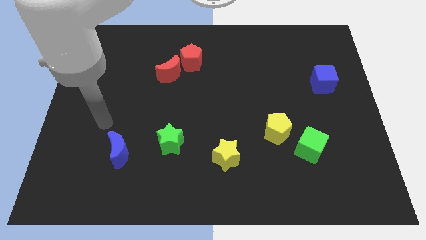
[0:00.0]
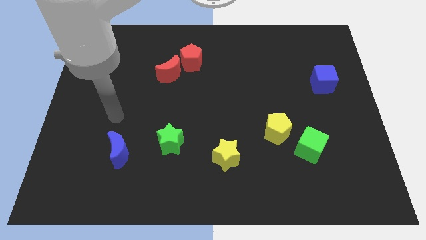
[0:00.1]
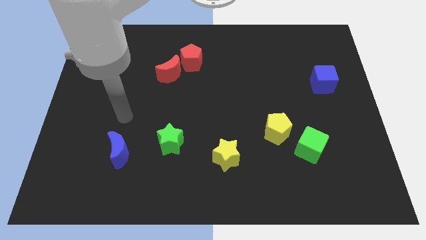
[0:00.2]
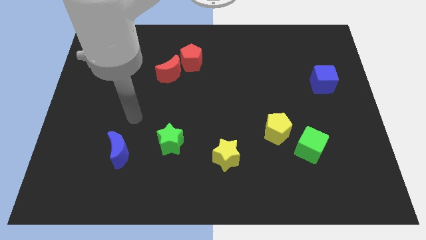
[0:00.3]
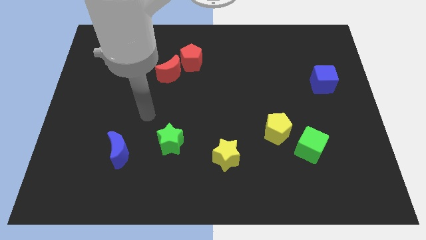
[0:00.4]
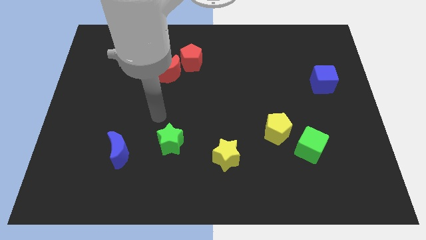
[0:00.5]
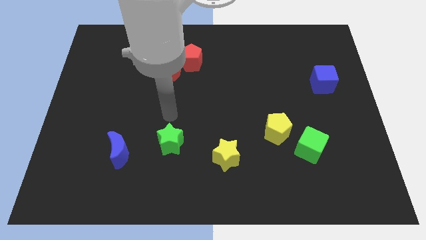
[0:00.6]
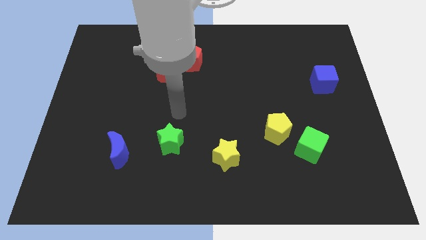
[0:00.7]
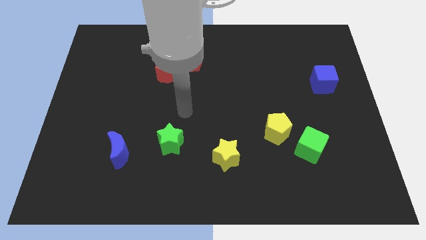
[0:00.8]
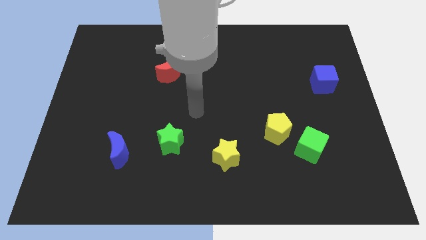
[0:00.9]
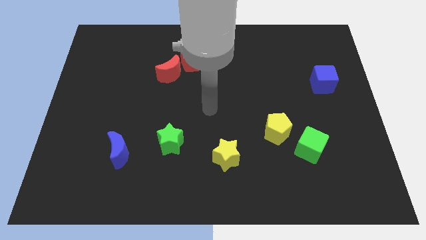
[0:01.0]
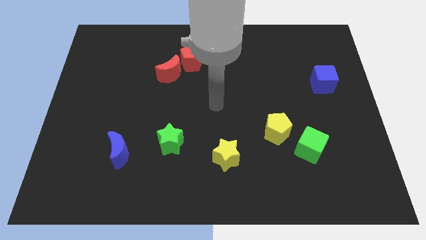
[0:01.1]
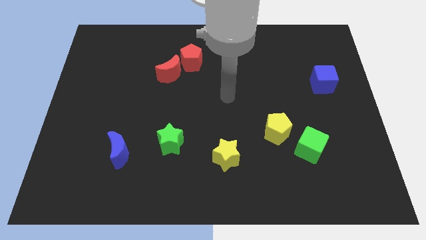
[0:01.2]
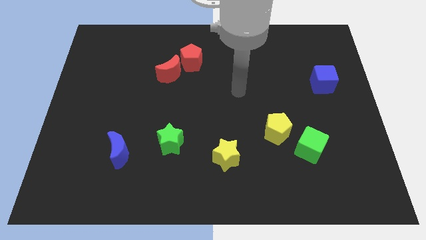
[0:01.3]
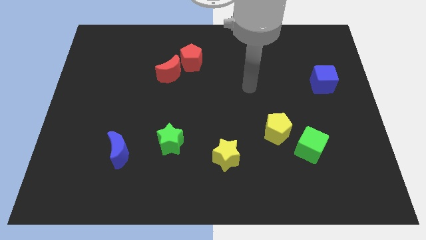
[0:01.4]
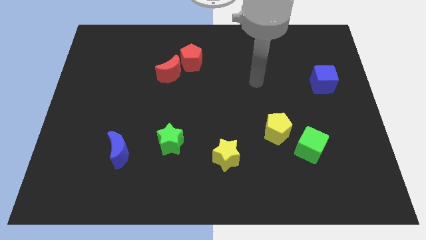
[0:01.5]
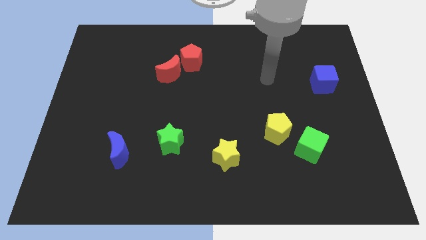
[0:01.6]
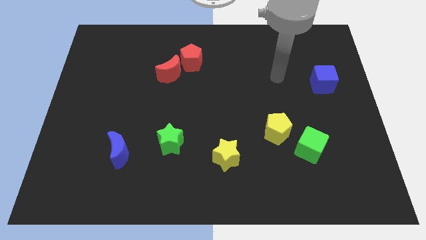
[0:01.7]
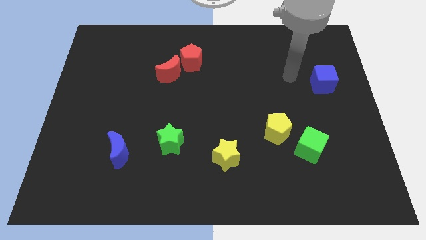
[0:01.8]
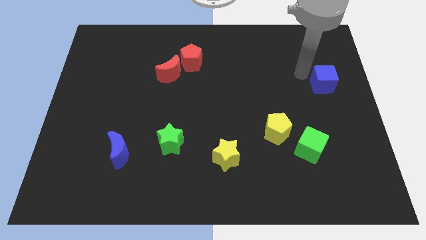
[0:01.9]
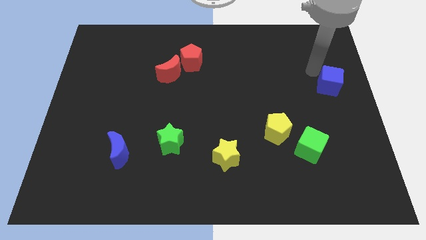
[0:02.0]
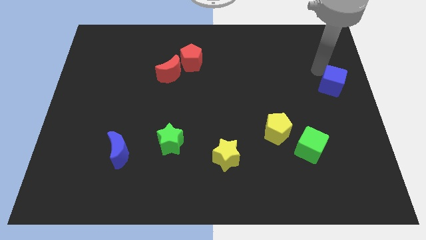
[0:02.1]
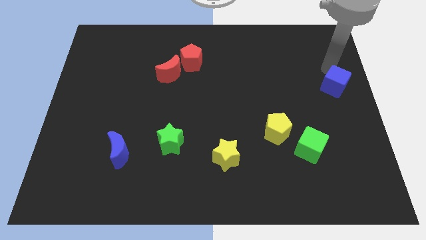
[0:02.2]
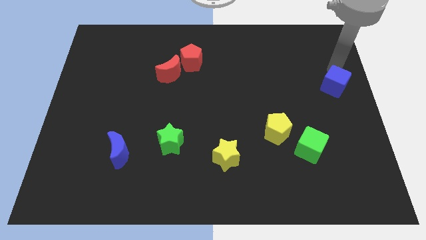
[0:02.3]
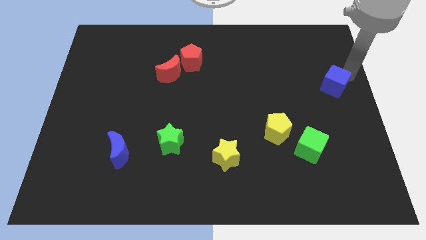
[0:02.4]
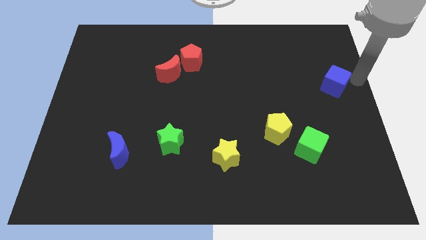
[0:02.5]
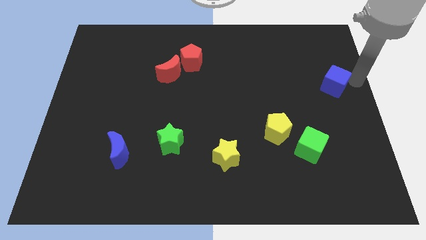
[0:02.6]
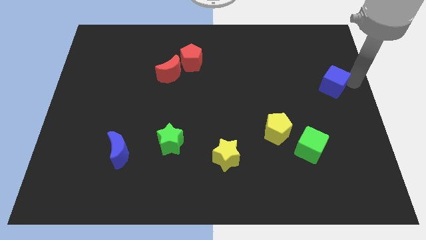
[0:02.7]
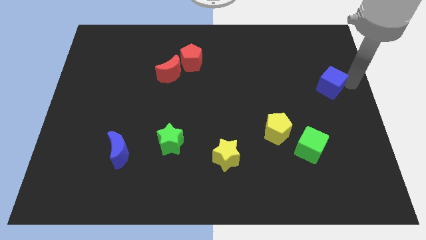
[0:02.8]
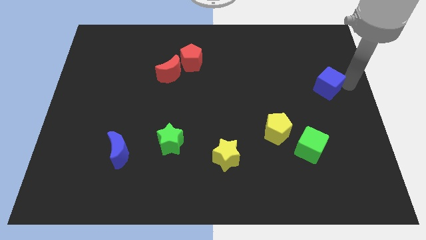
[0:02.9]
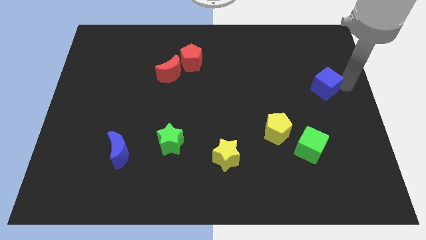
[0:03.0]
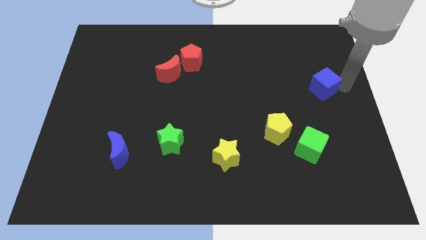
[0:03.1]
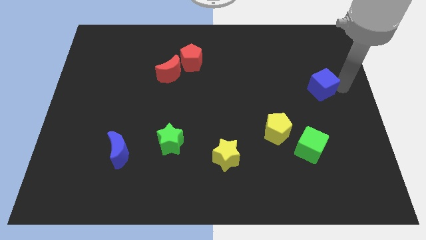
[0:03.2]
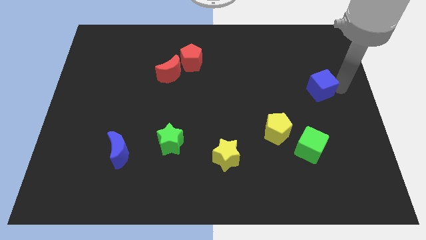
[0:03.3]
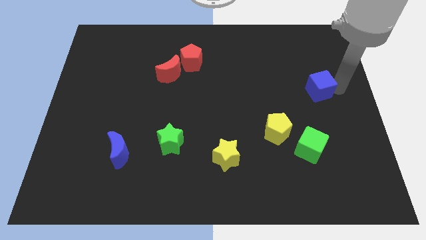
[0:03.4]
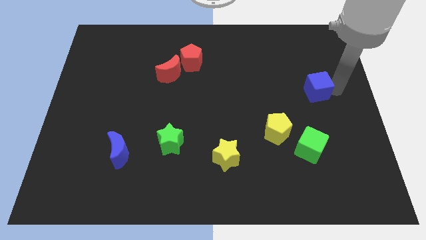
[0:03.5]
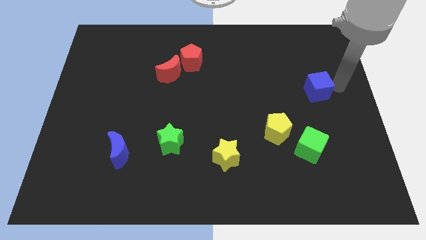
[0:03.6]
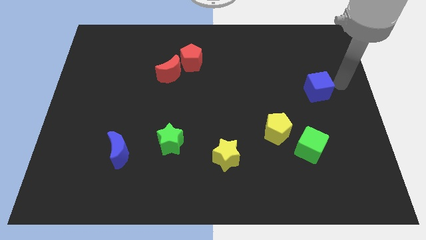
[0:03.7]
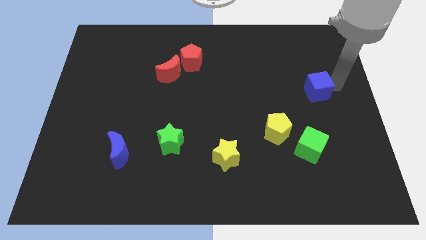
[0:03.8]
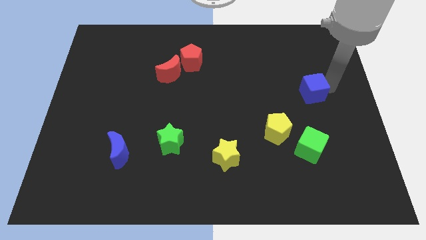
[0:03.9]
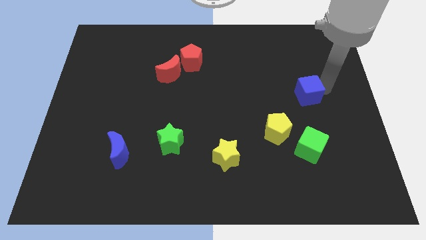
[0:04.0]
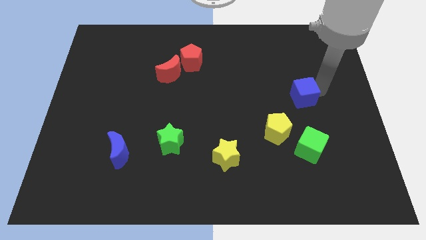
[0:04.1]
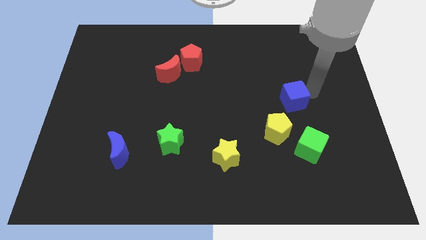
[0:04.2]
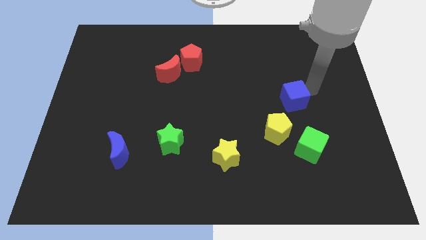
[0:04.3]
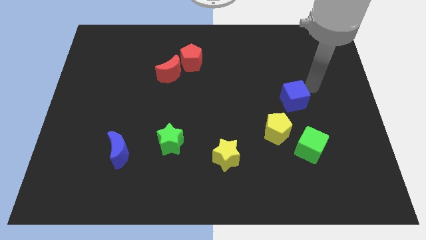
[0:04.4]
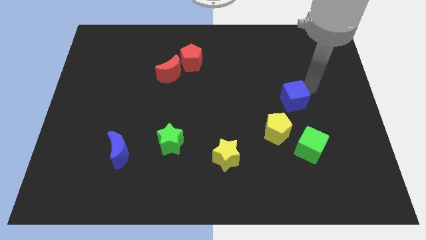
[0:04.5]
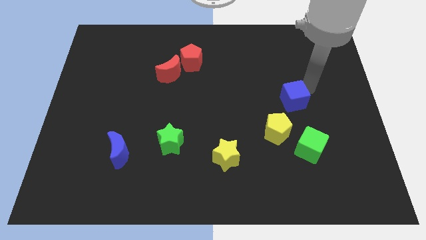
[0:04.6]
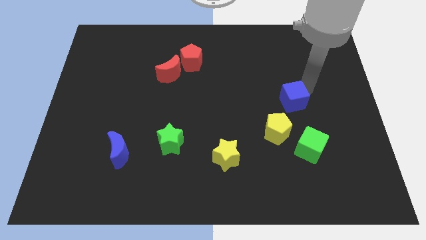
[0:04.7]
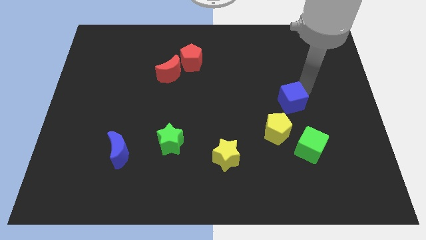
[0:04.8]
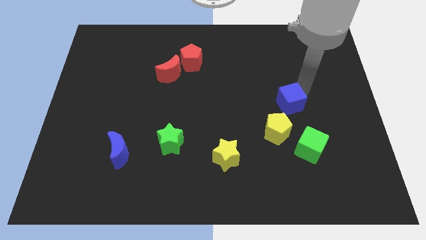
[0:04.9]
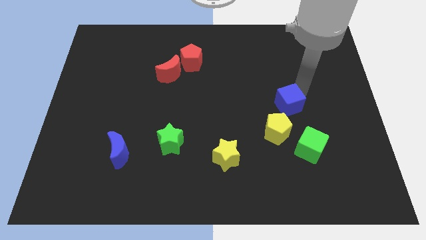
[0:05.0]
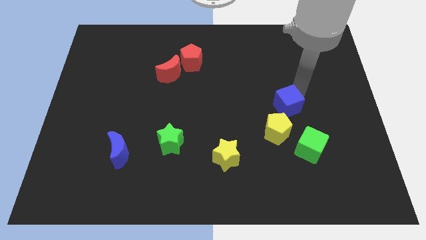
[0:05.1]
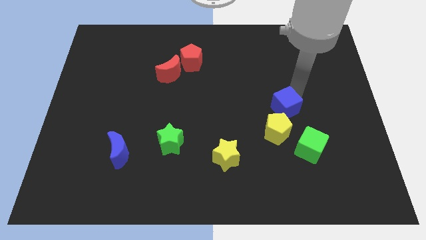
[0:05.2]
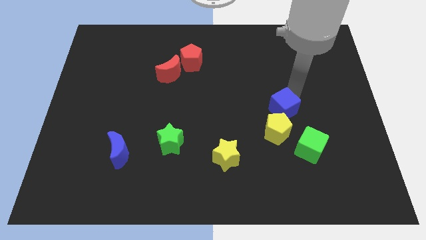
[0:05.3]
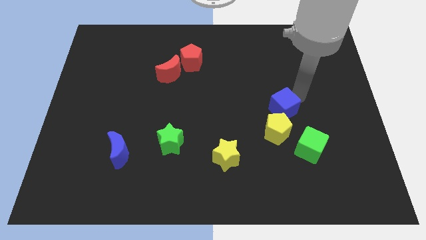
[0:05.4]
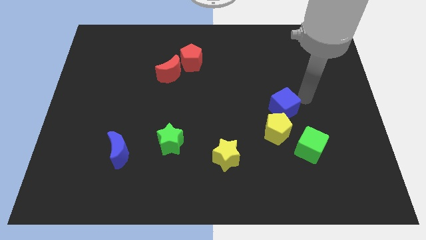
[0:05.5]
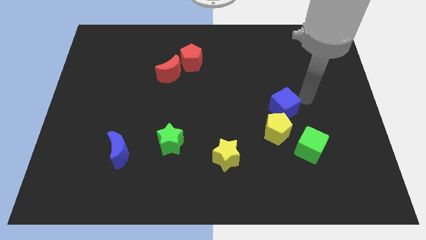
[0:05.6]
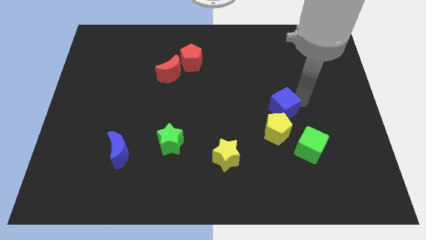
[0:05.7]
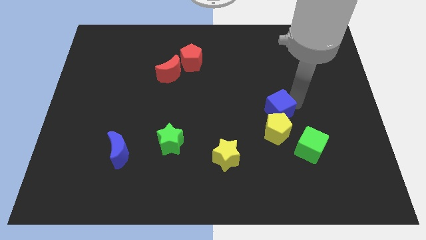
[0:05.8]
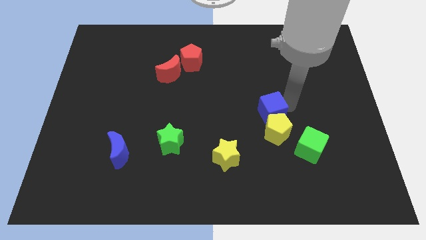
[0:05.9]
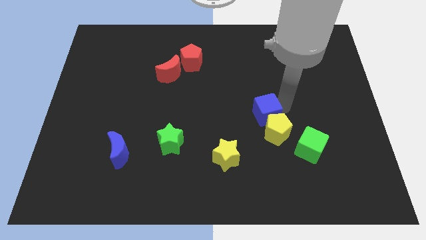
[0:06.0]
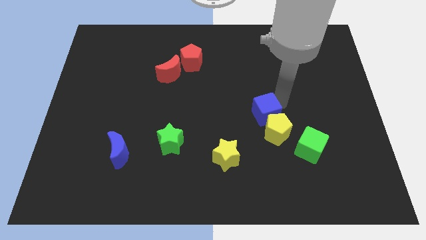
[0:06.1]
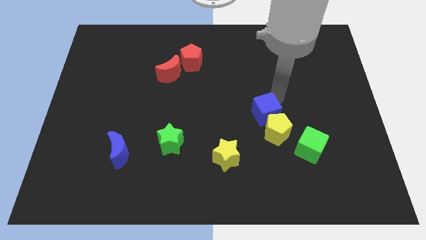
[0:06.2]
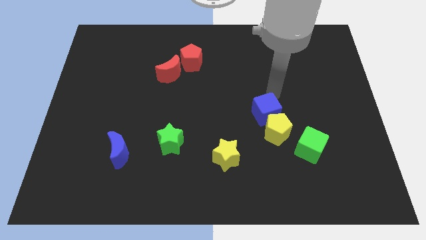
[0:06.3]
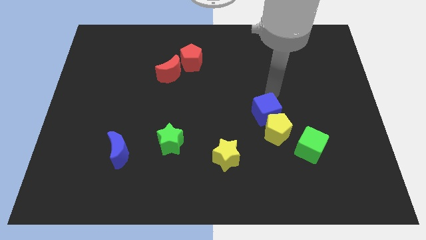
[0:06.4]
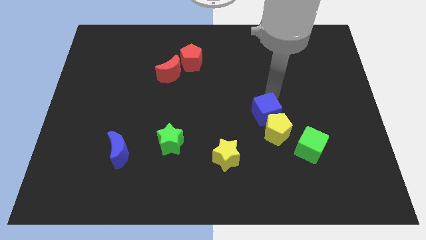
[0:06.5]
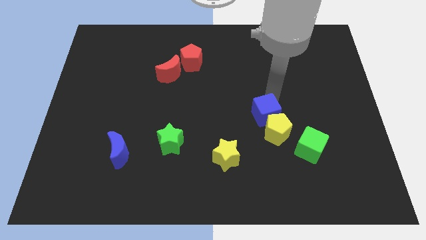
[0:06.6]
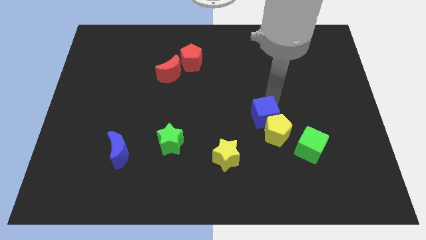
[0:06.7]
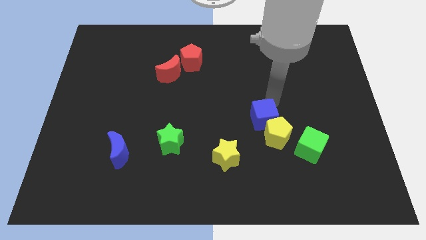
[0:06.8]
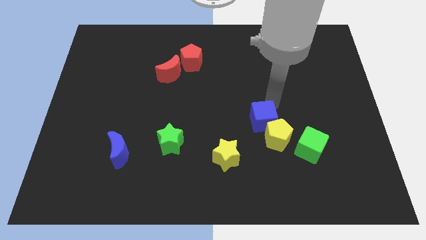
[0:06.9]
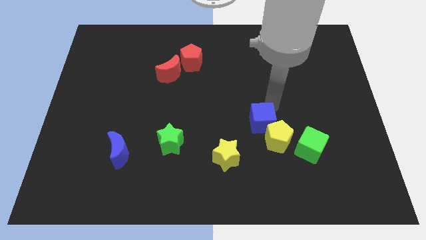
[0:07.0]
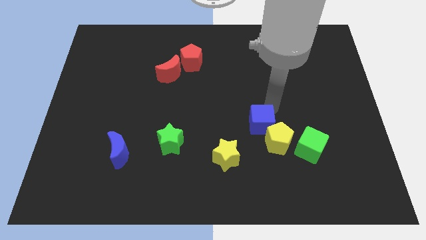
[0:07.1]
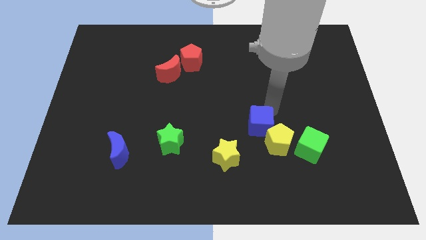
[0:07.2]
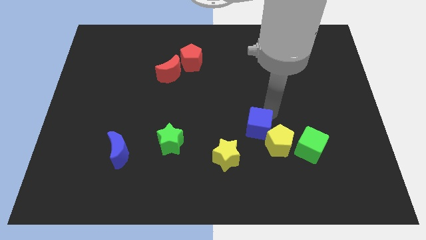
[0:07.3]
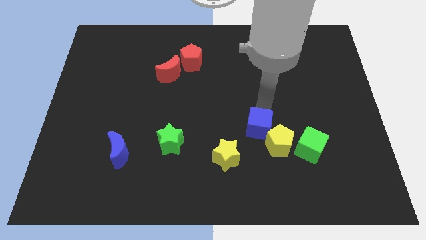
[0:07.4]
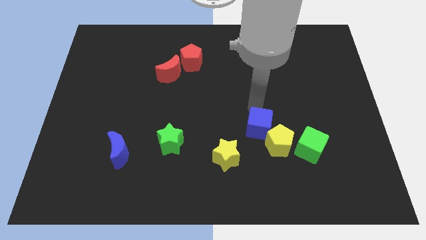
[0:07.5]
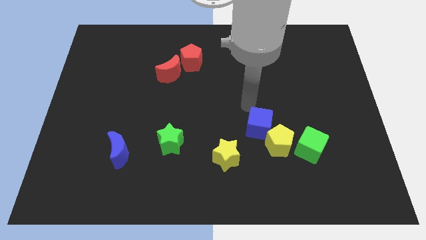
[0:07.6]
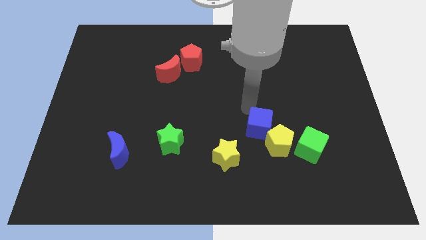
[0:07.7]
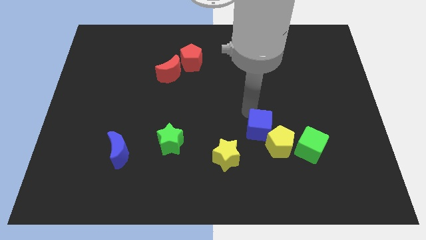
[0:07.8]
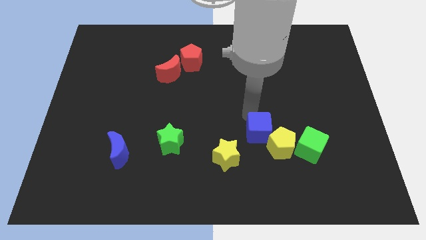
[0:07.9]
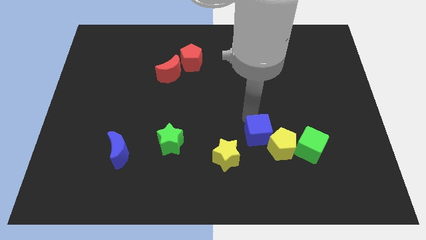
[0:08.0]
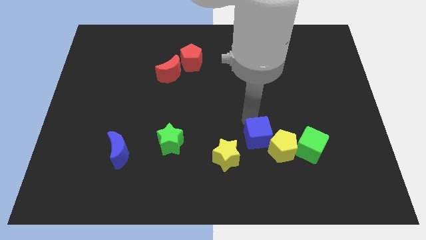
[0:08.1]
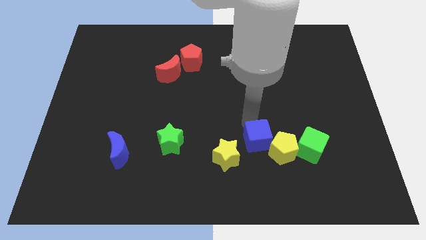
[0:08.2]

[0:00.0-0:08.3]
move the blue cube to the right of the yellow star
